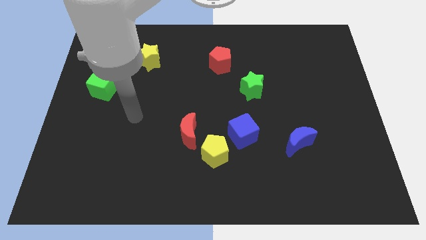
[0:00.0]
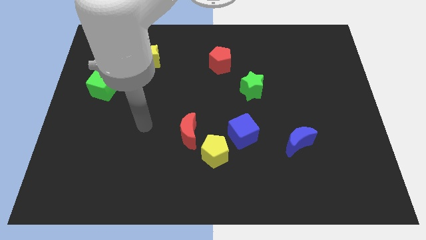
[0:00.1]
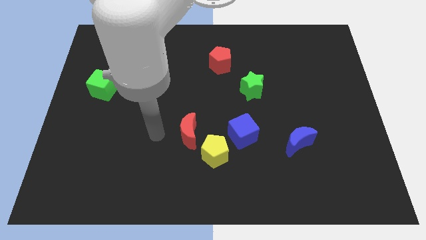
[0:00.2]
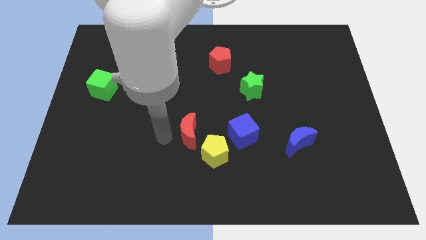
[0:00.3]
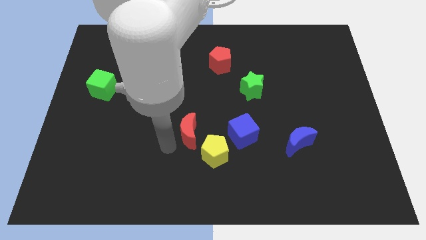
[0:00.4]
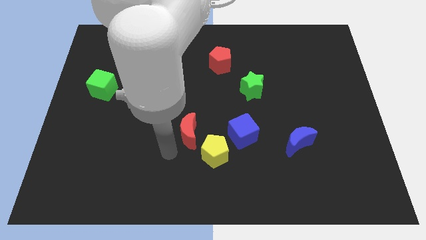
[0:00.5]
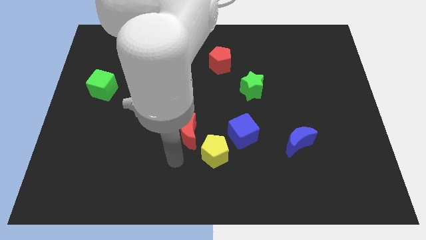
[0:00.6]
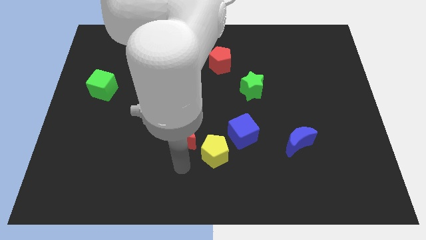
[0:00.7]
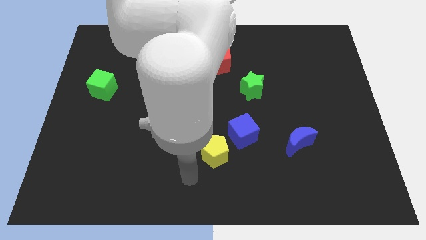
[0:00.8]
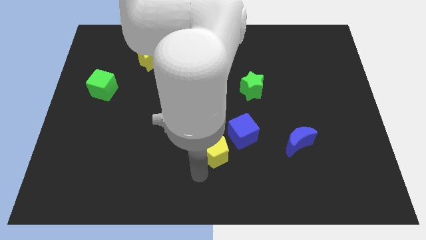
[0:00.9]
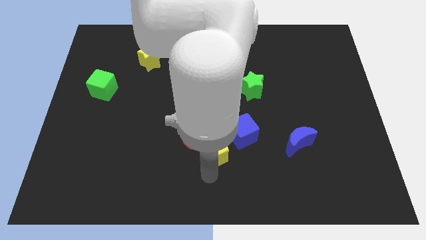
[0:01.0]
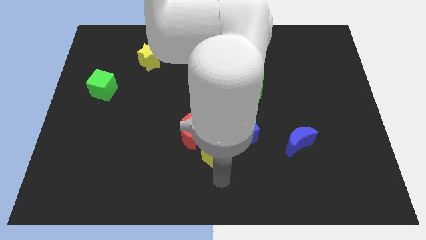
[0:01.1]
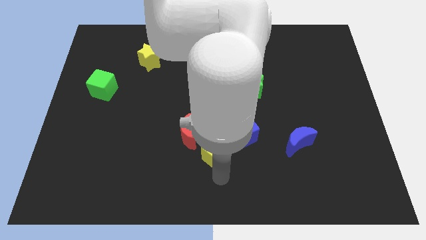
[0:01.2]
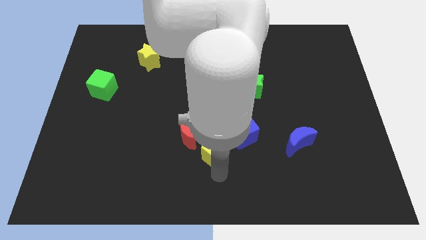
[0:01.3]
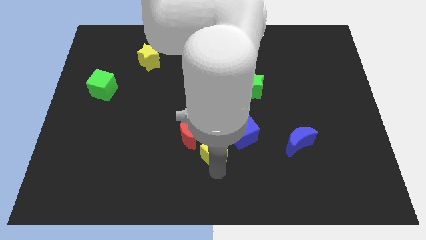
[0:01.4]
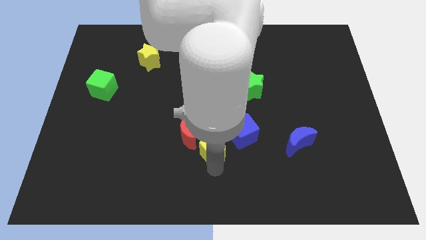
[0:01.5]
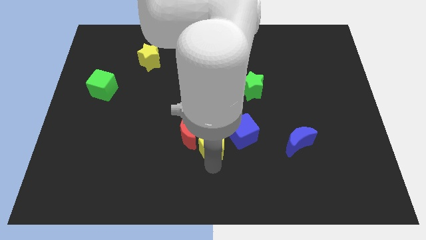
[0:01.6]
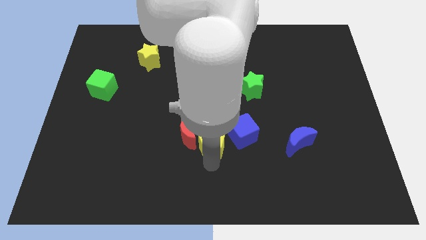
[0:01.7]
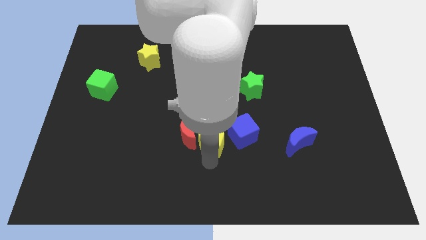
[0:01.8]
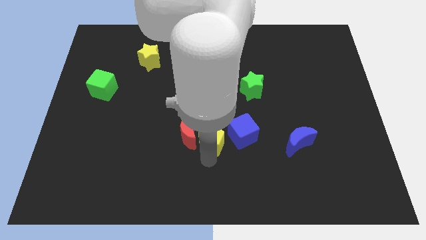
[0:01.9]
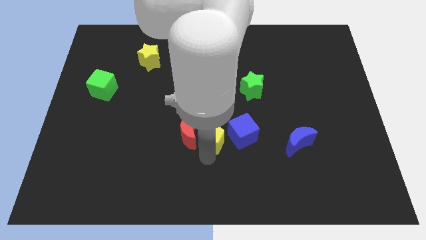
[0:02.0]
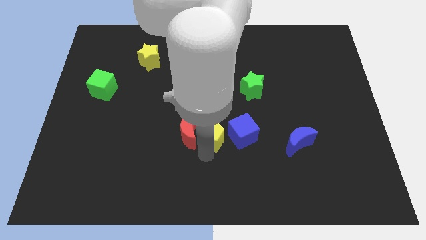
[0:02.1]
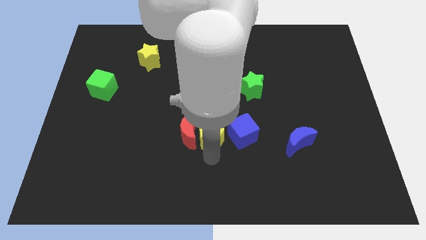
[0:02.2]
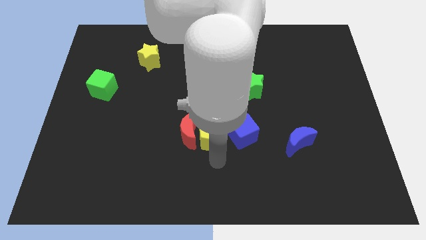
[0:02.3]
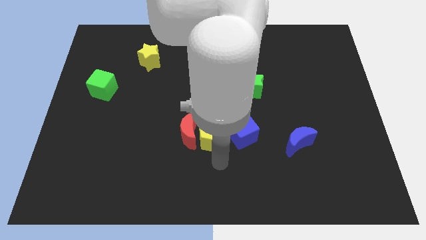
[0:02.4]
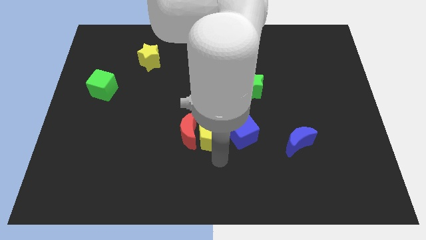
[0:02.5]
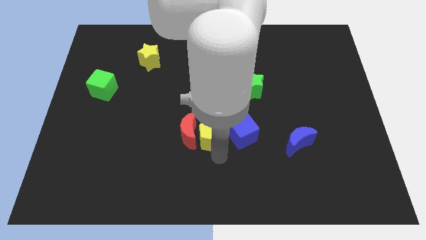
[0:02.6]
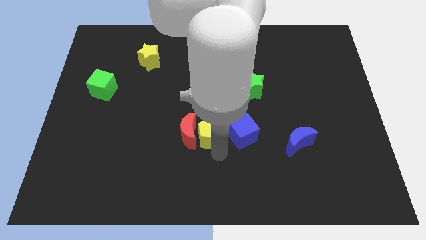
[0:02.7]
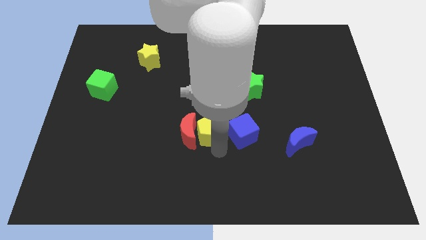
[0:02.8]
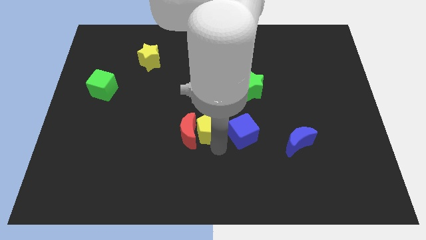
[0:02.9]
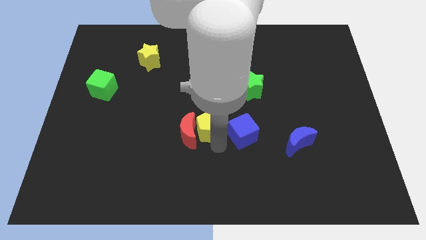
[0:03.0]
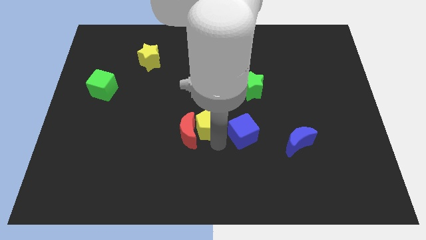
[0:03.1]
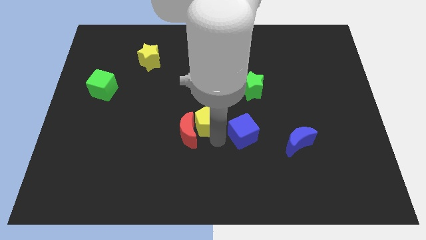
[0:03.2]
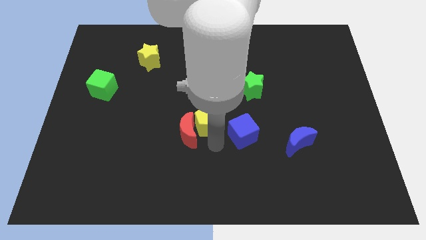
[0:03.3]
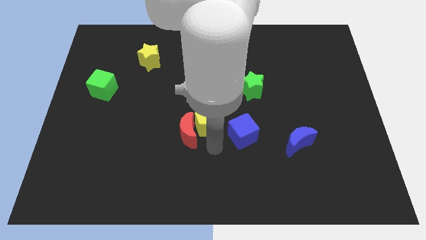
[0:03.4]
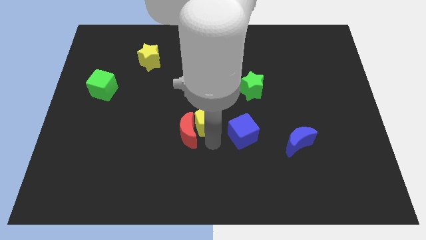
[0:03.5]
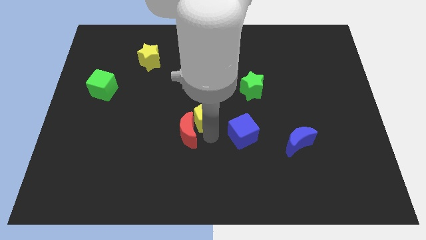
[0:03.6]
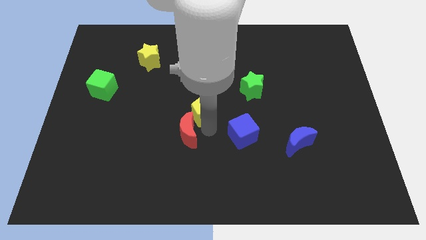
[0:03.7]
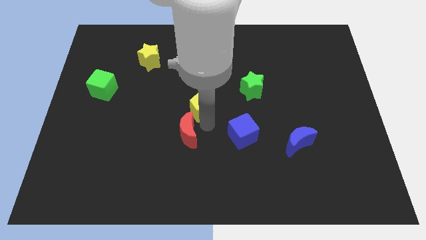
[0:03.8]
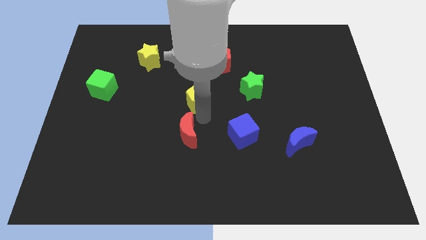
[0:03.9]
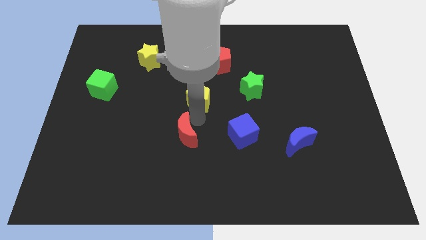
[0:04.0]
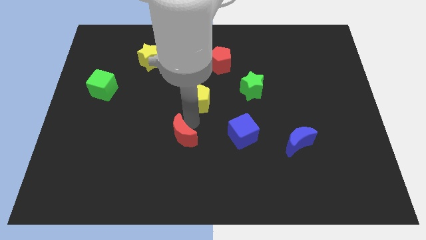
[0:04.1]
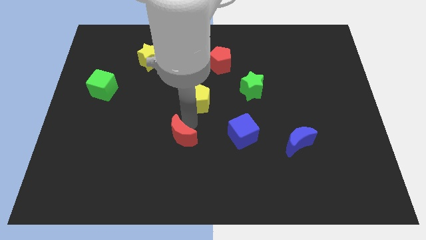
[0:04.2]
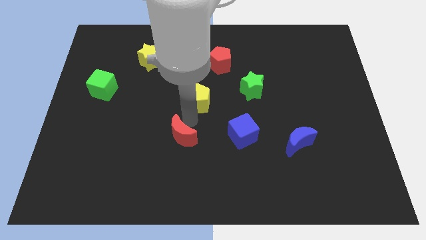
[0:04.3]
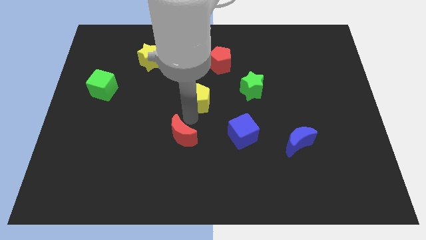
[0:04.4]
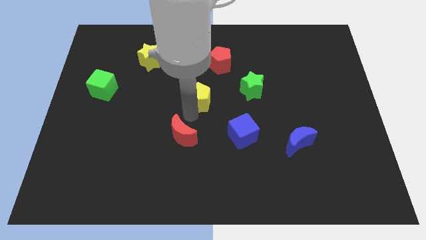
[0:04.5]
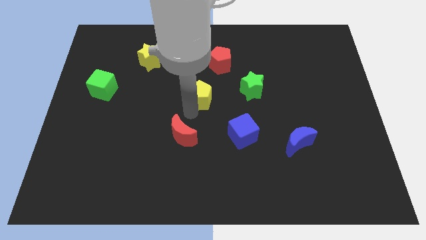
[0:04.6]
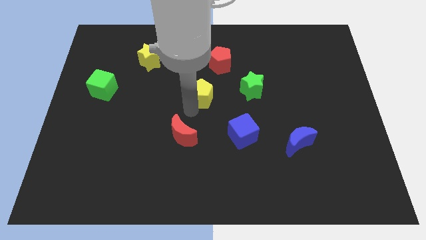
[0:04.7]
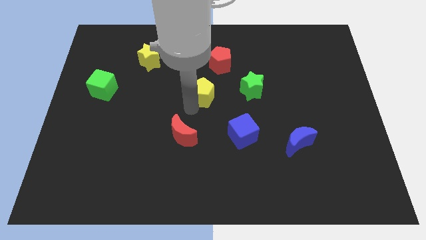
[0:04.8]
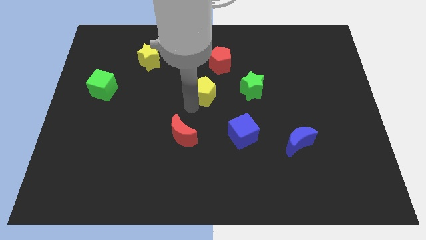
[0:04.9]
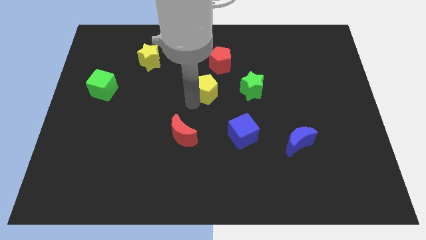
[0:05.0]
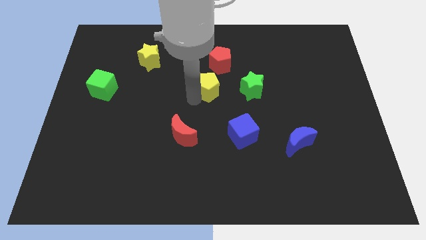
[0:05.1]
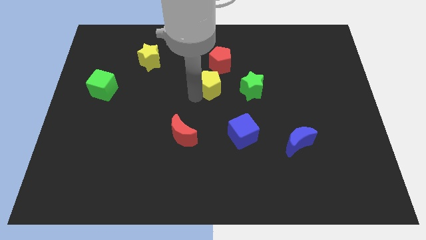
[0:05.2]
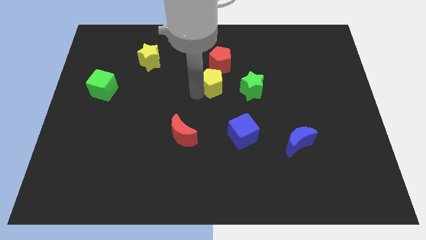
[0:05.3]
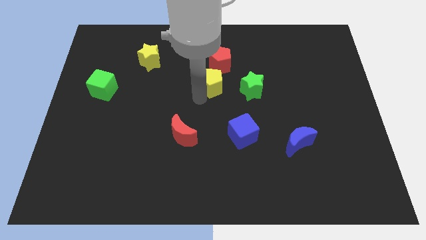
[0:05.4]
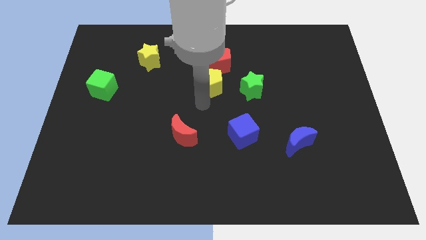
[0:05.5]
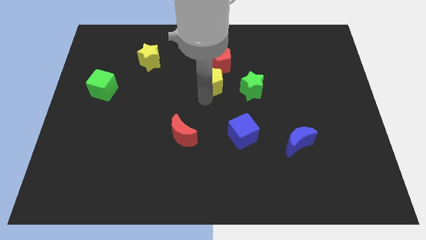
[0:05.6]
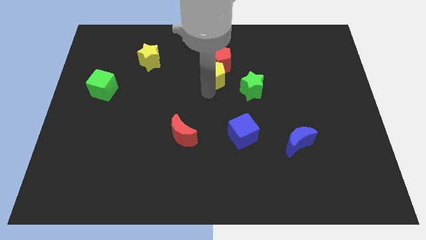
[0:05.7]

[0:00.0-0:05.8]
slide the yellow pentagon close to the red pentagon

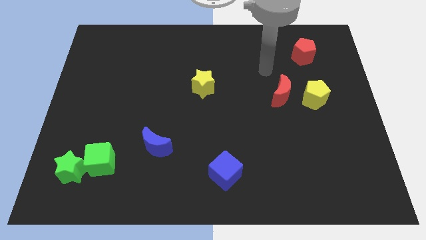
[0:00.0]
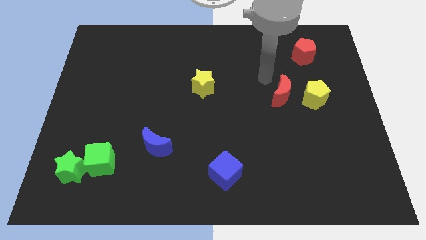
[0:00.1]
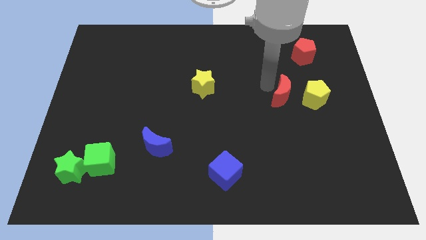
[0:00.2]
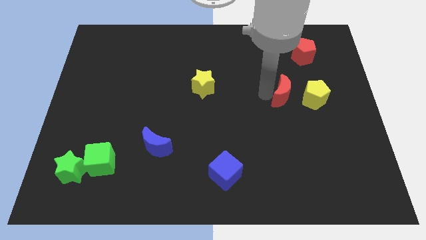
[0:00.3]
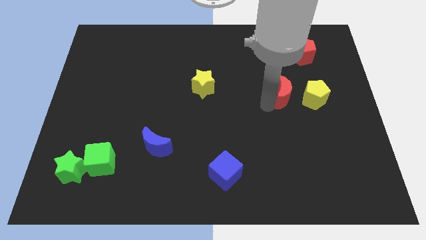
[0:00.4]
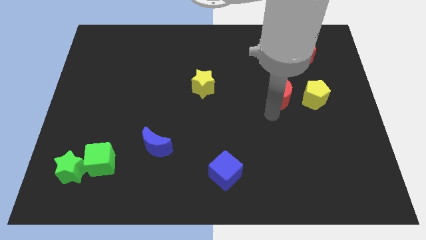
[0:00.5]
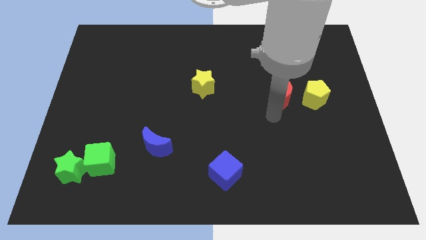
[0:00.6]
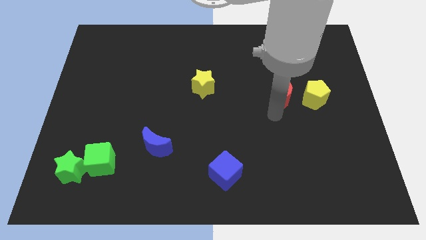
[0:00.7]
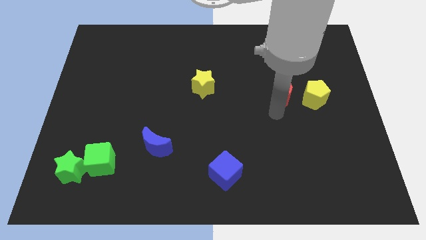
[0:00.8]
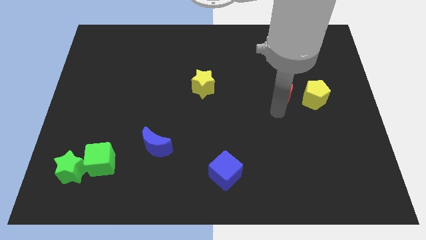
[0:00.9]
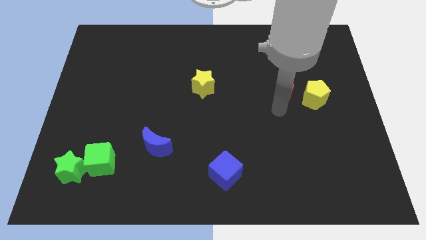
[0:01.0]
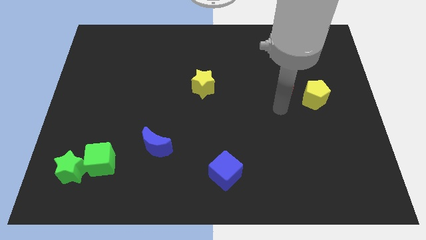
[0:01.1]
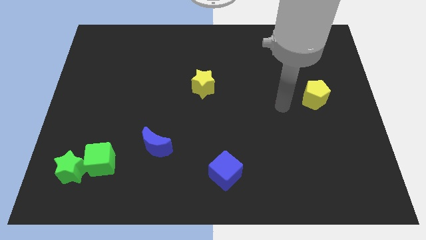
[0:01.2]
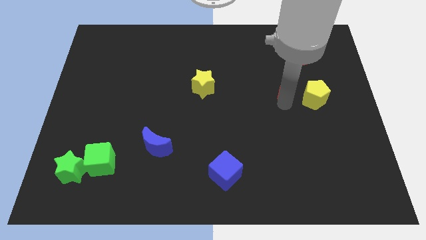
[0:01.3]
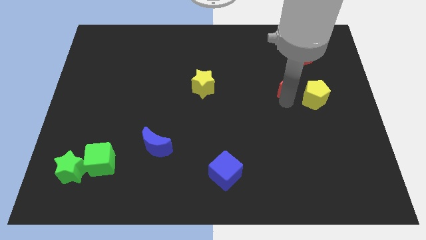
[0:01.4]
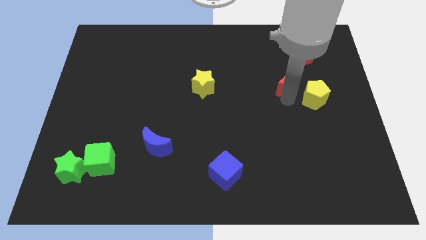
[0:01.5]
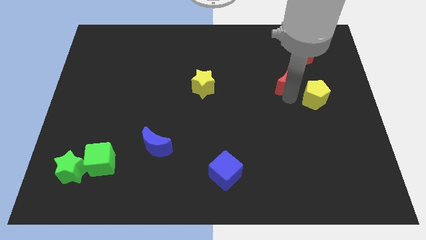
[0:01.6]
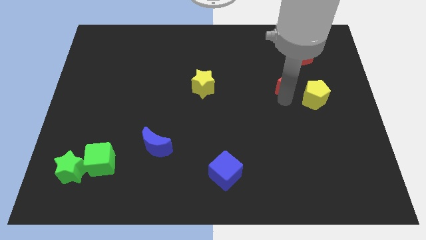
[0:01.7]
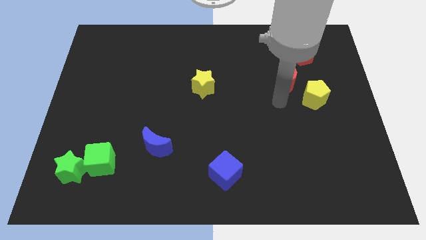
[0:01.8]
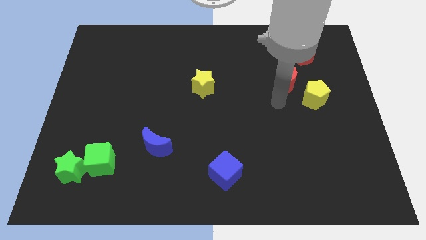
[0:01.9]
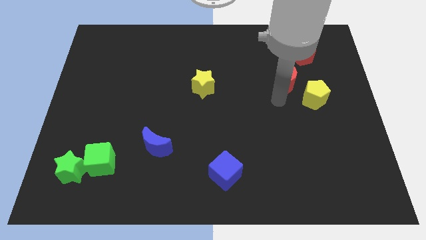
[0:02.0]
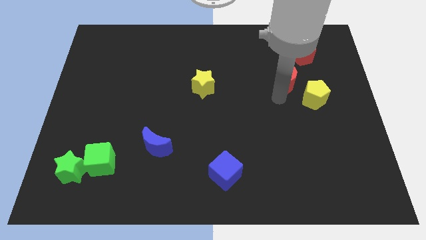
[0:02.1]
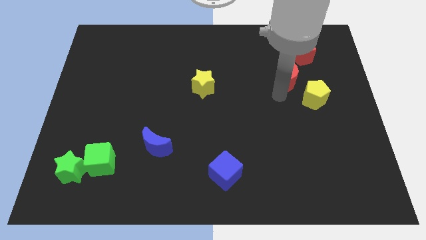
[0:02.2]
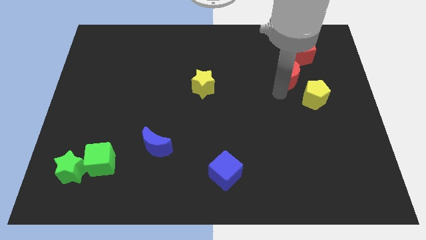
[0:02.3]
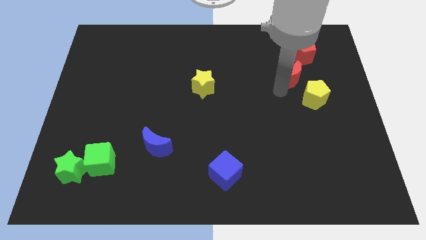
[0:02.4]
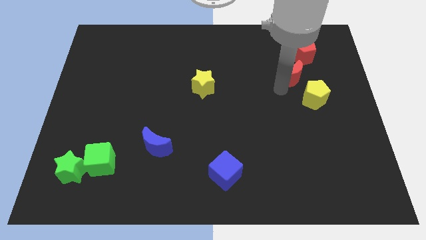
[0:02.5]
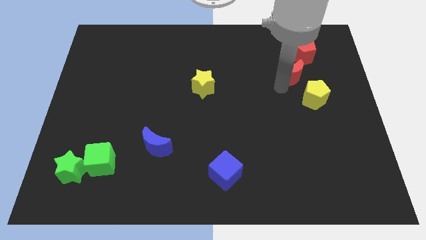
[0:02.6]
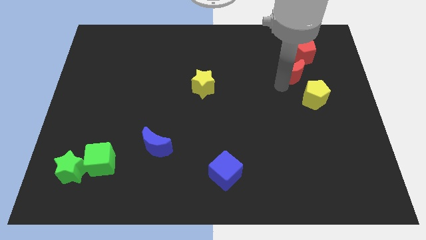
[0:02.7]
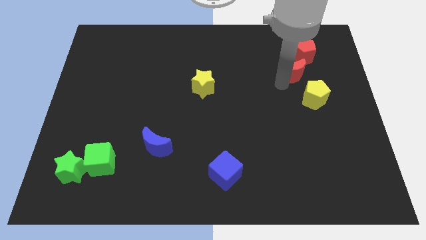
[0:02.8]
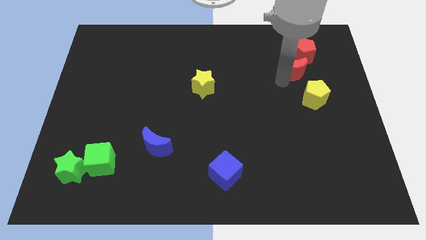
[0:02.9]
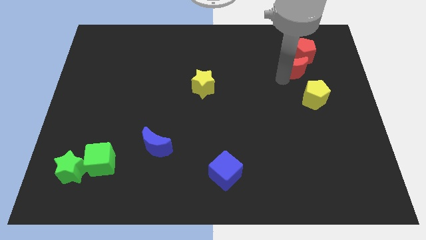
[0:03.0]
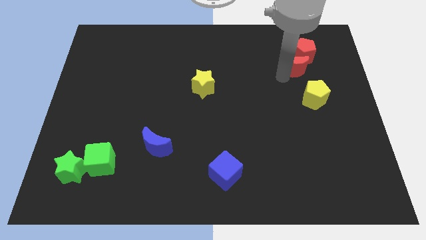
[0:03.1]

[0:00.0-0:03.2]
push the red moon next to the red pentagon
